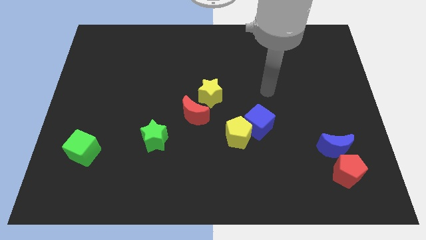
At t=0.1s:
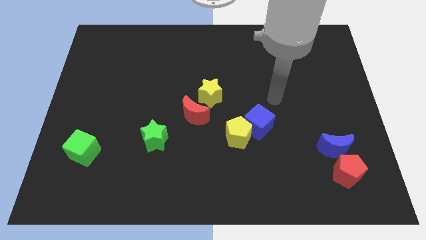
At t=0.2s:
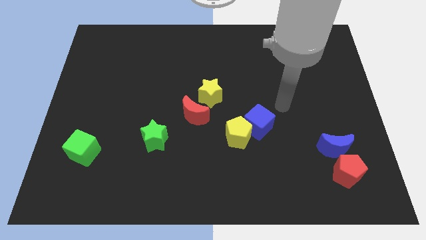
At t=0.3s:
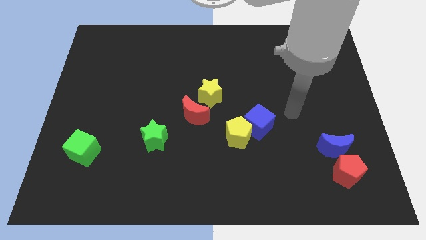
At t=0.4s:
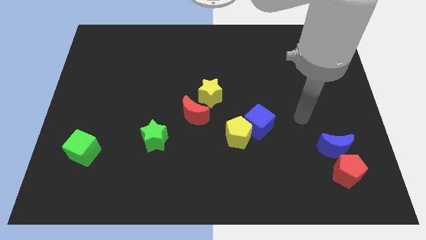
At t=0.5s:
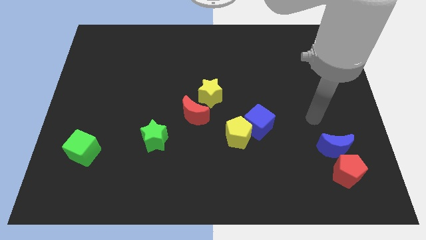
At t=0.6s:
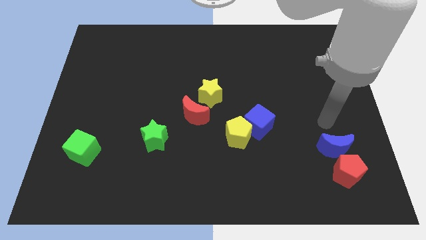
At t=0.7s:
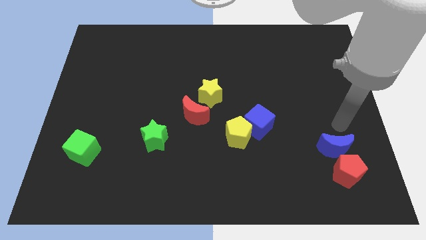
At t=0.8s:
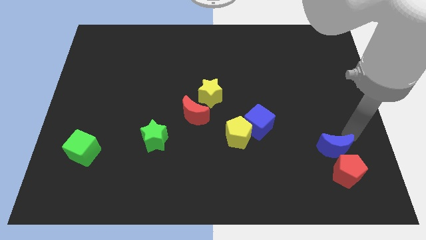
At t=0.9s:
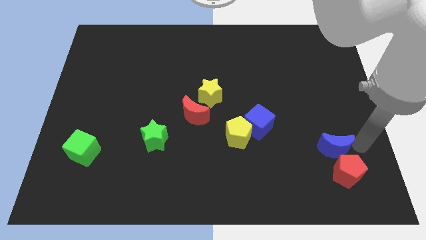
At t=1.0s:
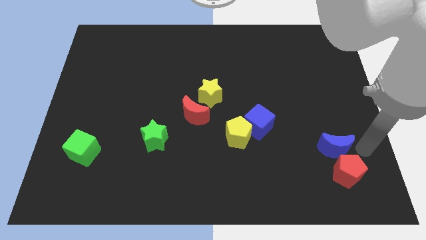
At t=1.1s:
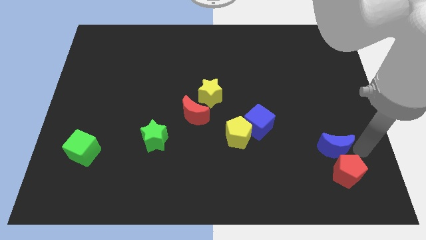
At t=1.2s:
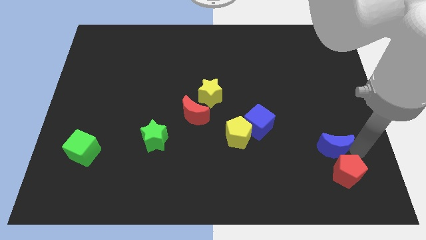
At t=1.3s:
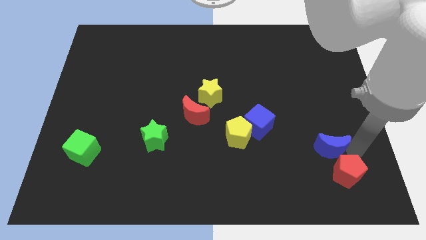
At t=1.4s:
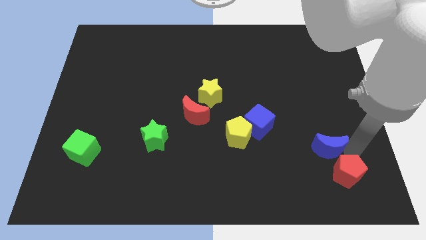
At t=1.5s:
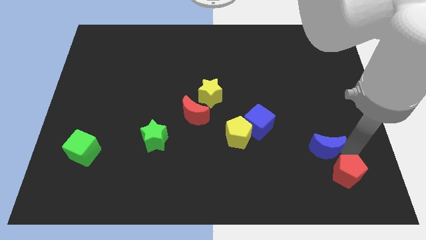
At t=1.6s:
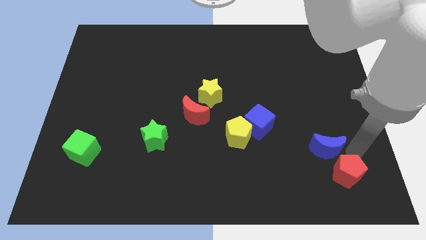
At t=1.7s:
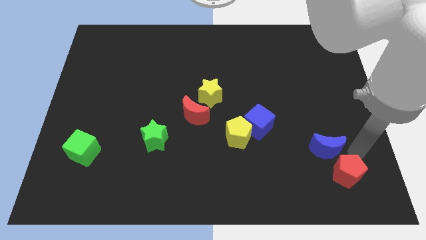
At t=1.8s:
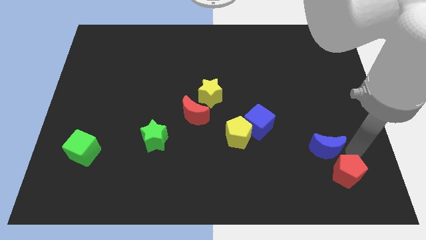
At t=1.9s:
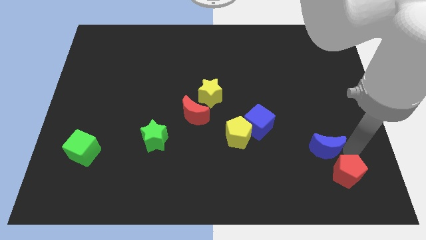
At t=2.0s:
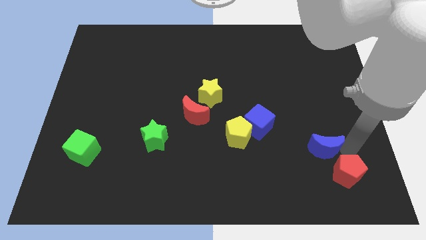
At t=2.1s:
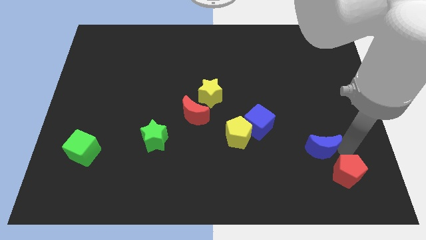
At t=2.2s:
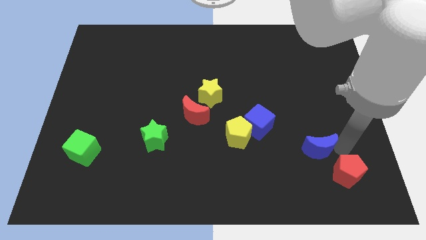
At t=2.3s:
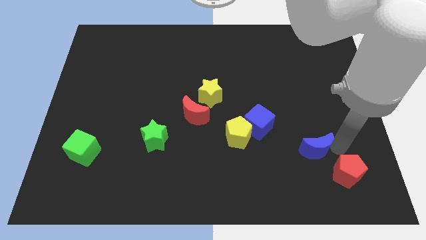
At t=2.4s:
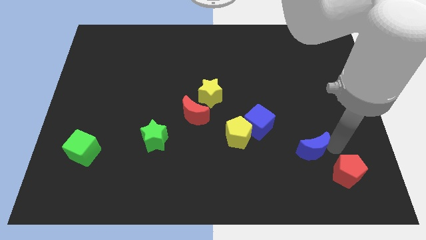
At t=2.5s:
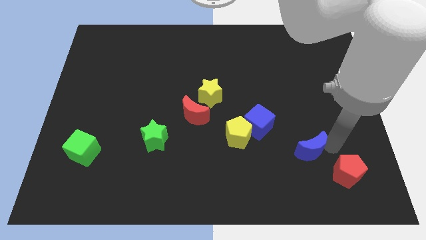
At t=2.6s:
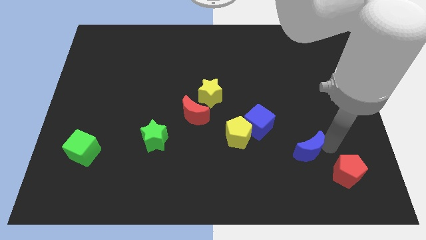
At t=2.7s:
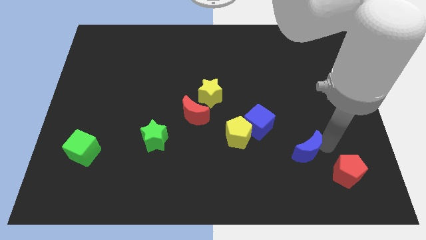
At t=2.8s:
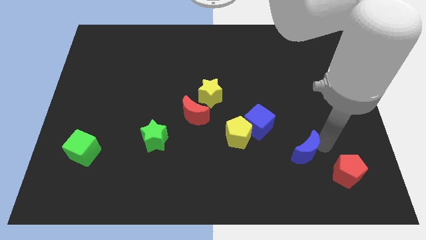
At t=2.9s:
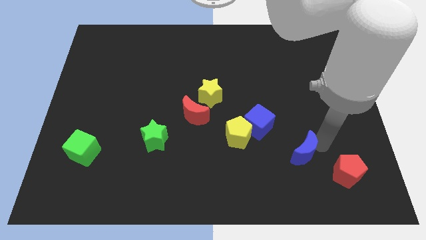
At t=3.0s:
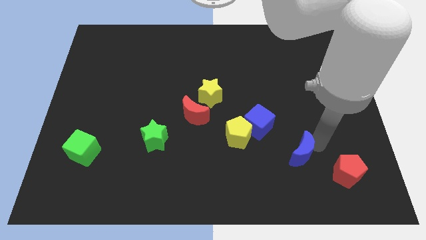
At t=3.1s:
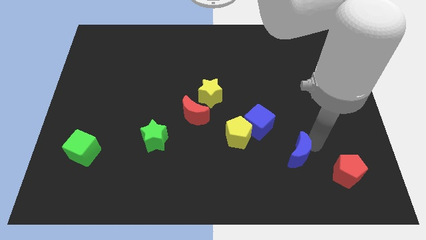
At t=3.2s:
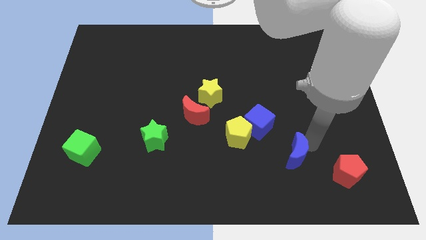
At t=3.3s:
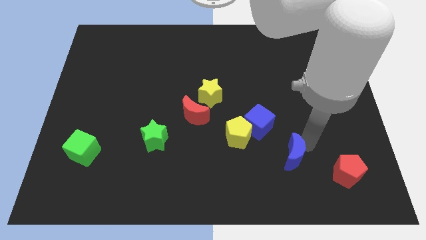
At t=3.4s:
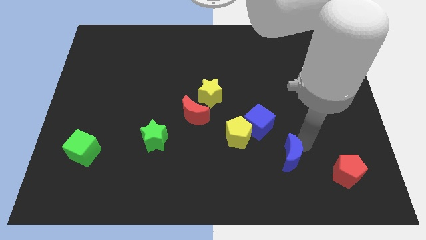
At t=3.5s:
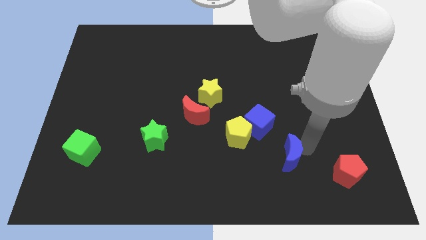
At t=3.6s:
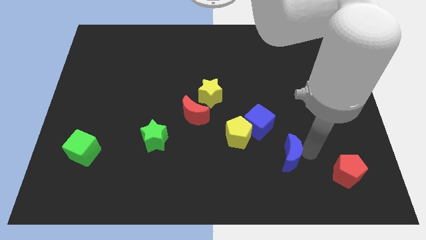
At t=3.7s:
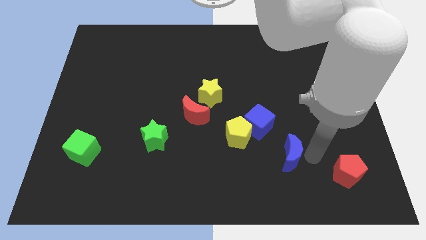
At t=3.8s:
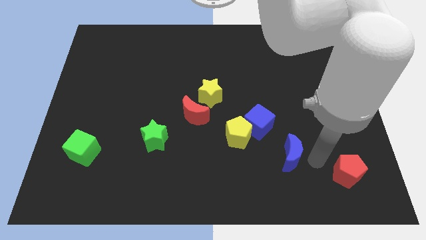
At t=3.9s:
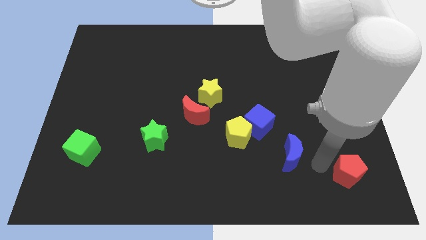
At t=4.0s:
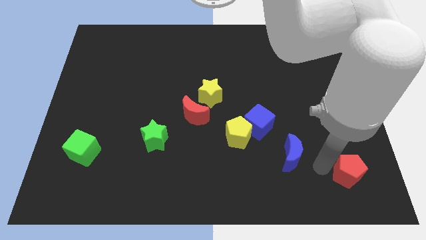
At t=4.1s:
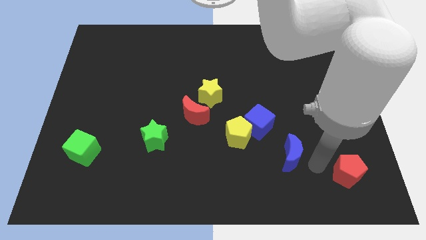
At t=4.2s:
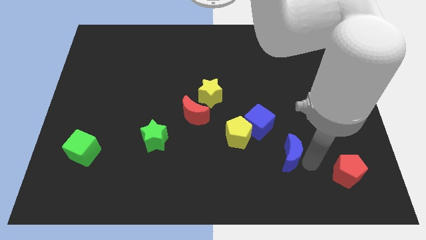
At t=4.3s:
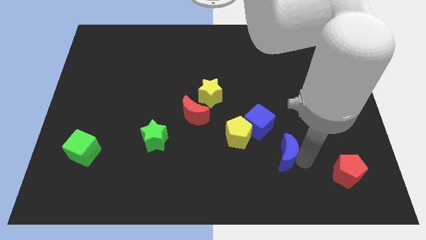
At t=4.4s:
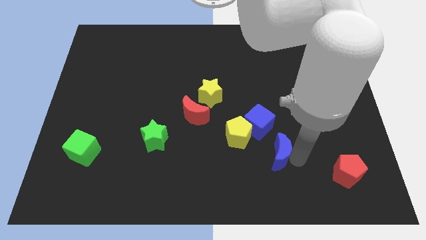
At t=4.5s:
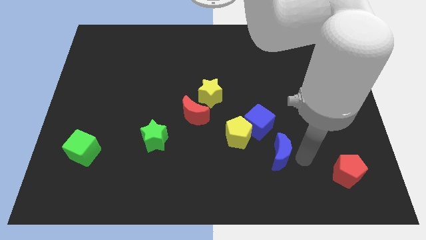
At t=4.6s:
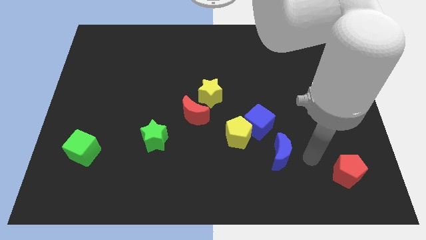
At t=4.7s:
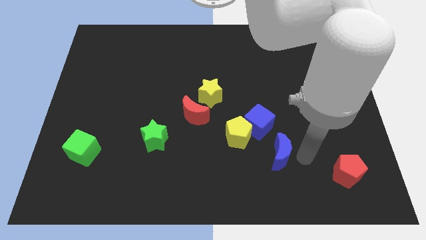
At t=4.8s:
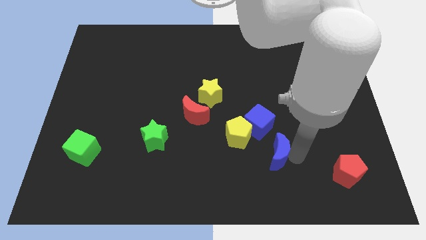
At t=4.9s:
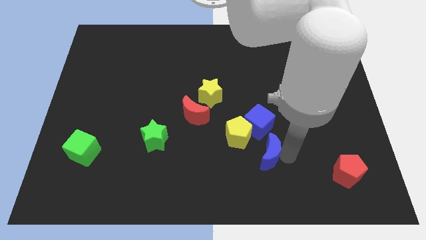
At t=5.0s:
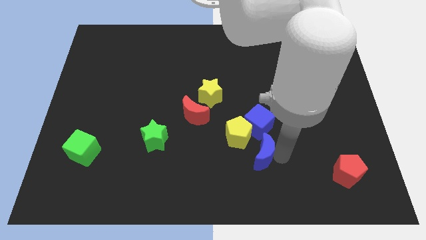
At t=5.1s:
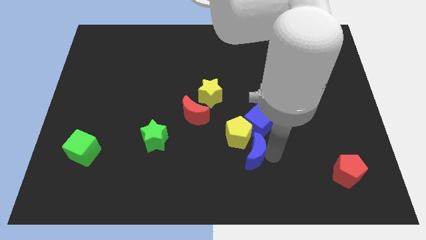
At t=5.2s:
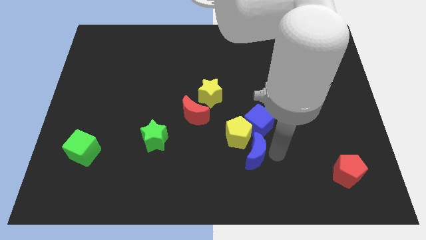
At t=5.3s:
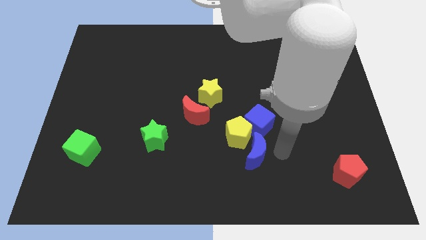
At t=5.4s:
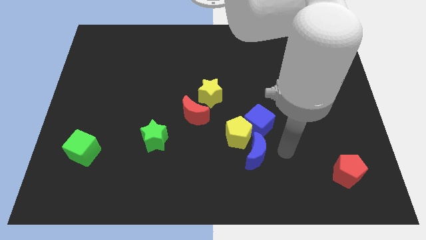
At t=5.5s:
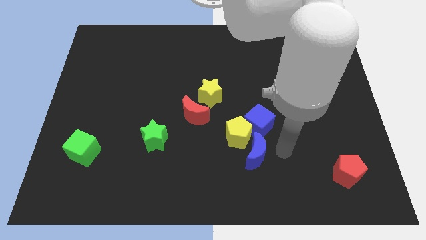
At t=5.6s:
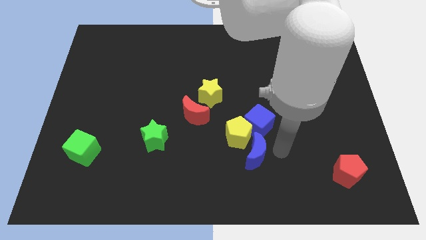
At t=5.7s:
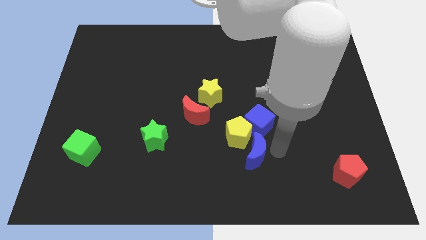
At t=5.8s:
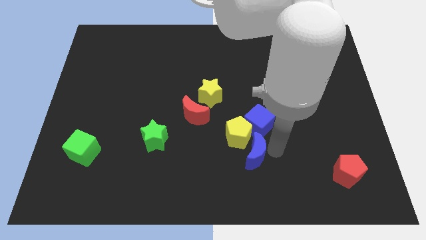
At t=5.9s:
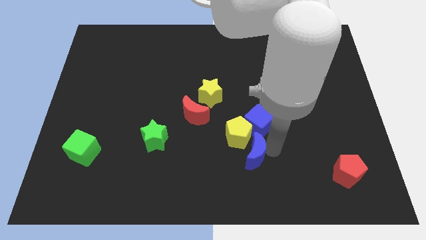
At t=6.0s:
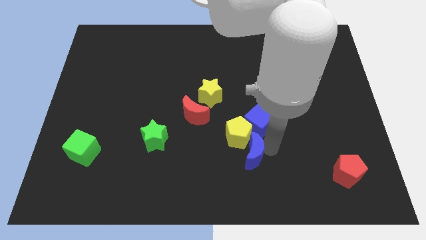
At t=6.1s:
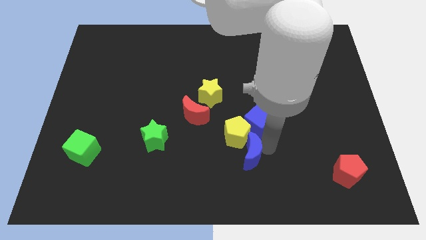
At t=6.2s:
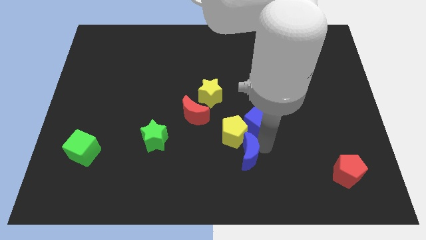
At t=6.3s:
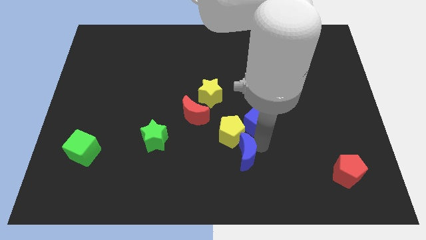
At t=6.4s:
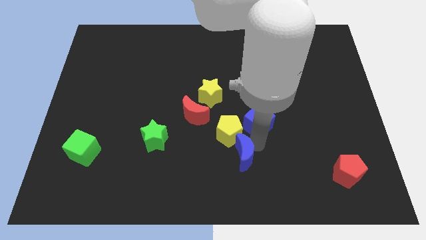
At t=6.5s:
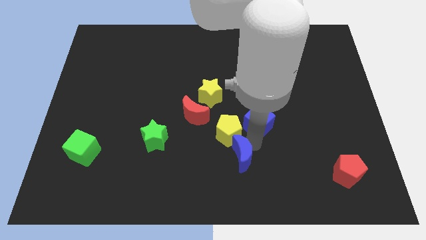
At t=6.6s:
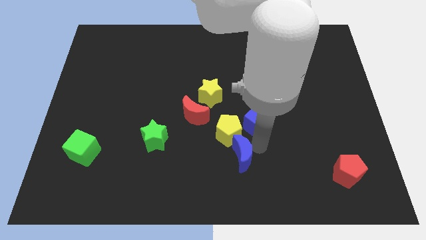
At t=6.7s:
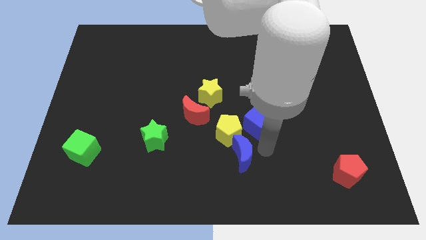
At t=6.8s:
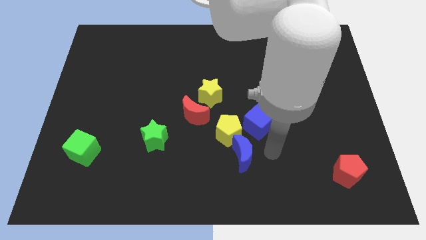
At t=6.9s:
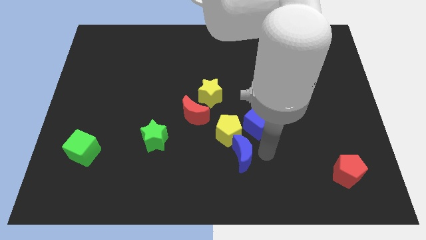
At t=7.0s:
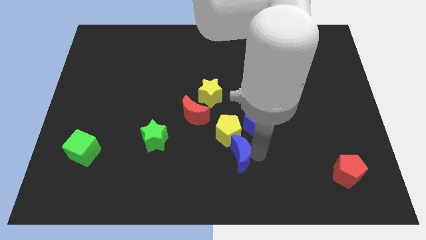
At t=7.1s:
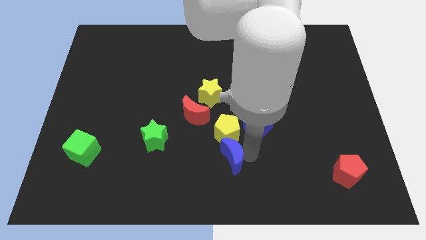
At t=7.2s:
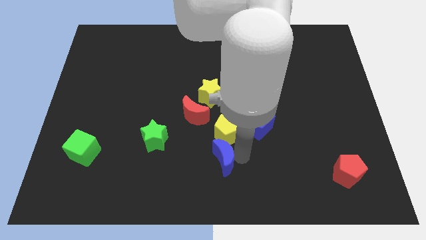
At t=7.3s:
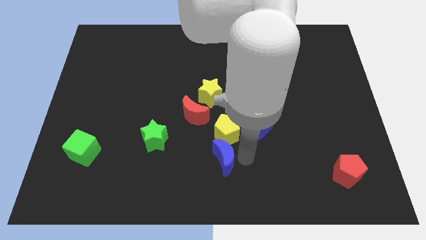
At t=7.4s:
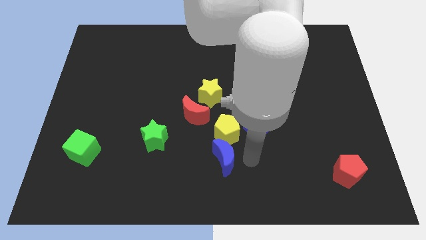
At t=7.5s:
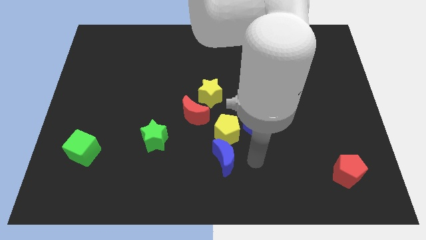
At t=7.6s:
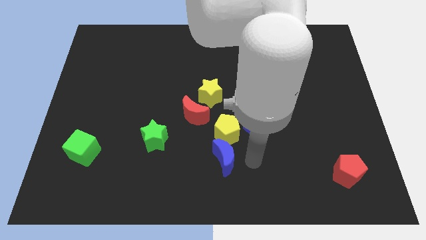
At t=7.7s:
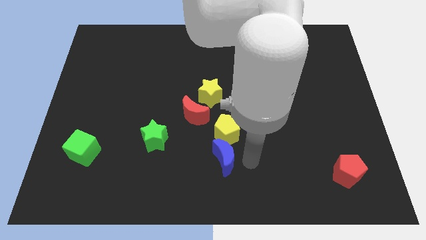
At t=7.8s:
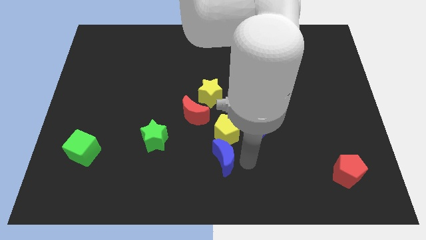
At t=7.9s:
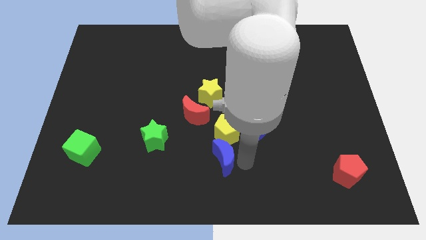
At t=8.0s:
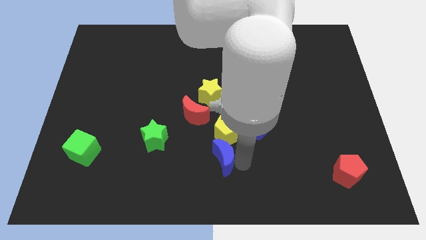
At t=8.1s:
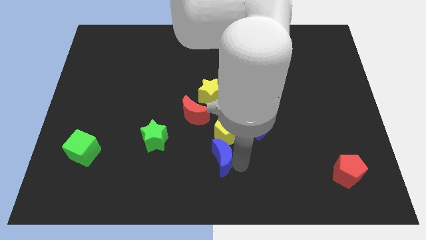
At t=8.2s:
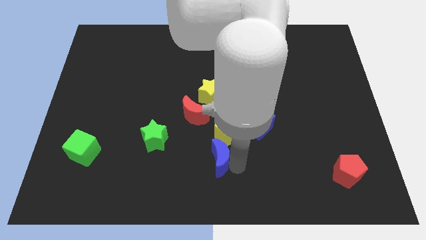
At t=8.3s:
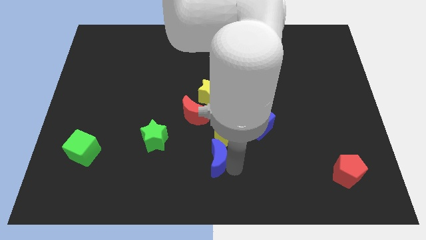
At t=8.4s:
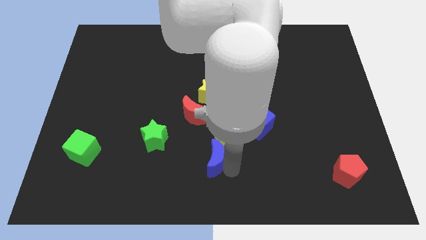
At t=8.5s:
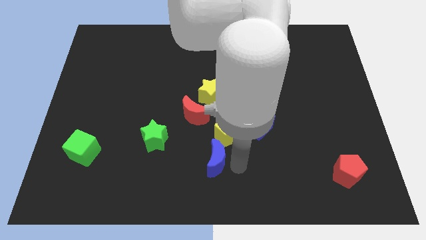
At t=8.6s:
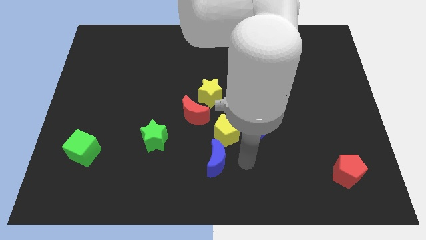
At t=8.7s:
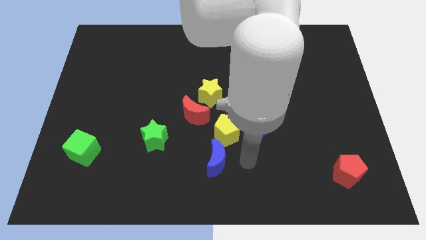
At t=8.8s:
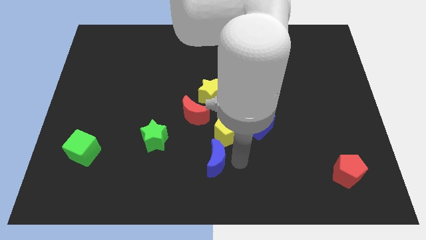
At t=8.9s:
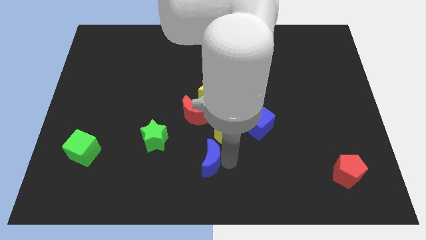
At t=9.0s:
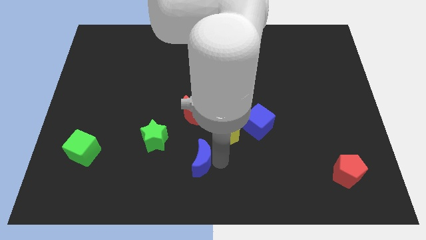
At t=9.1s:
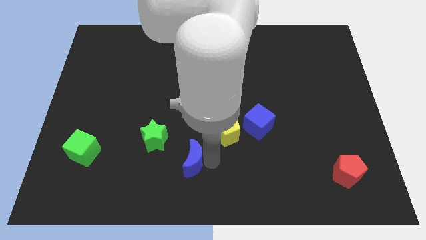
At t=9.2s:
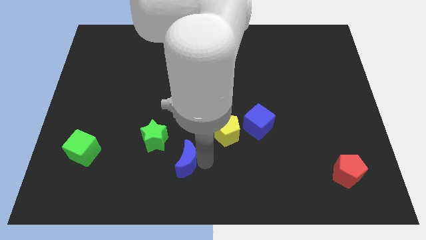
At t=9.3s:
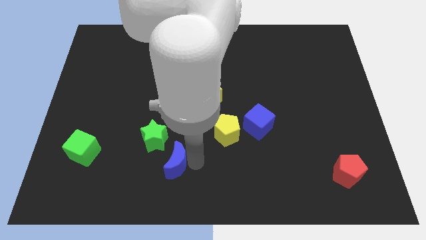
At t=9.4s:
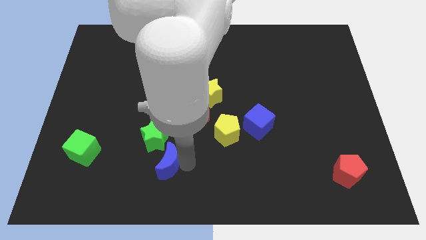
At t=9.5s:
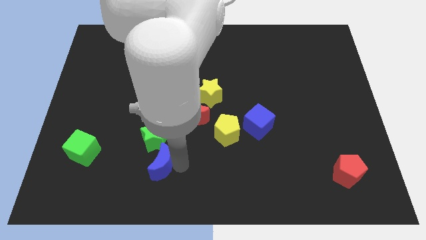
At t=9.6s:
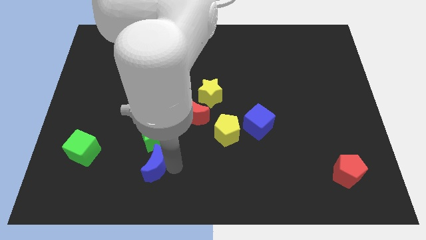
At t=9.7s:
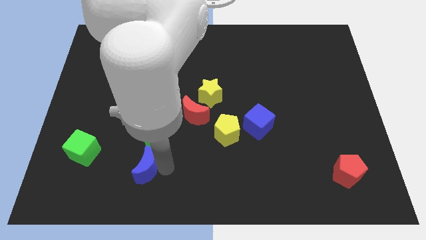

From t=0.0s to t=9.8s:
put the blue moon to the bottom left side of the green star
